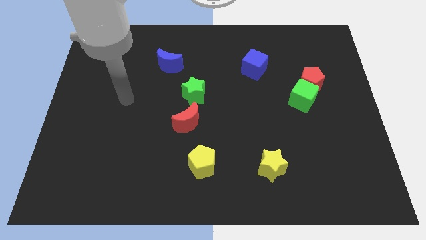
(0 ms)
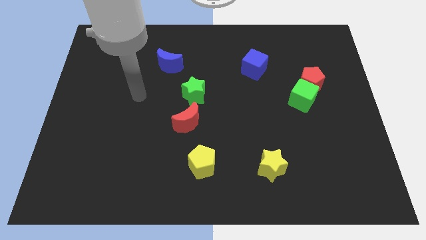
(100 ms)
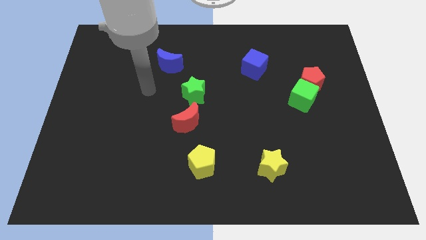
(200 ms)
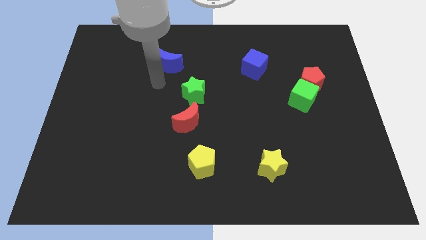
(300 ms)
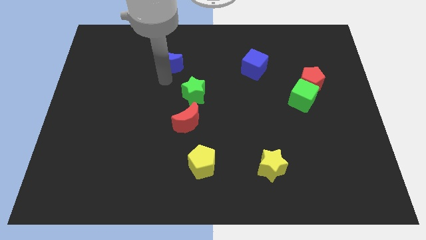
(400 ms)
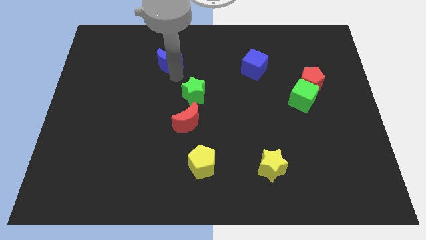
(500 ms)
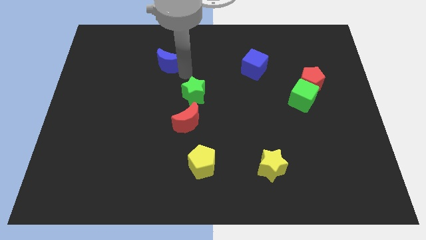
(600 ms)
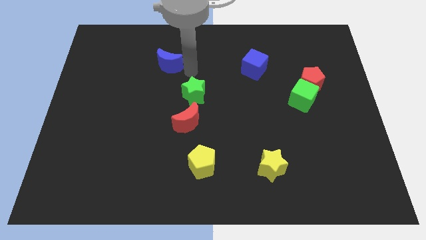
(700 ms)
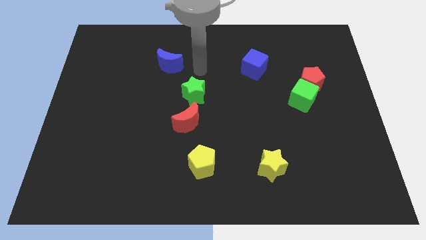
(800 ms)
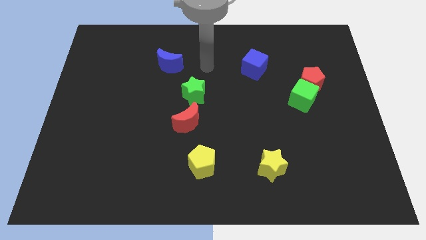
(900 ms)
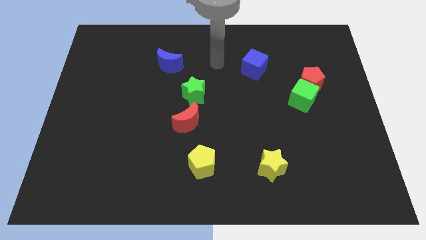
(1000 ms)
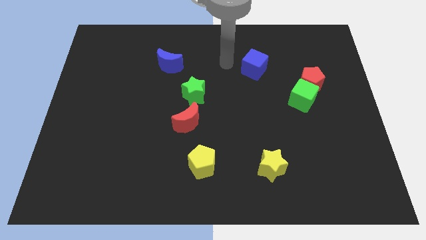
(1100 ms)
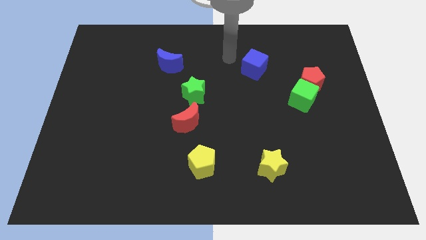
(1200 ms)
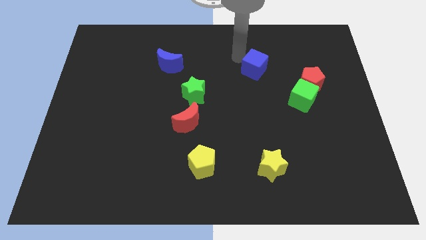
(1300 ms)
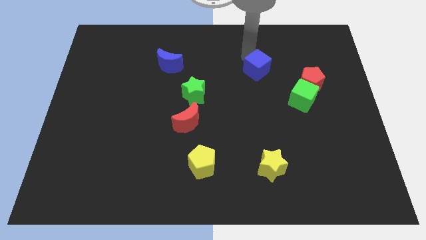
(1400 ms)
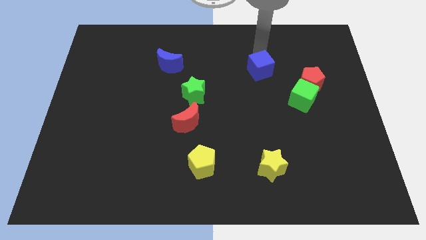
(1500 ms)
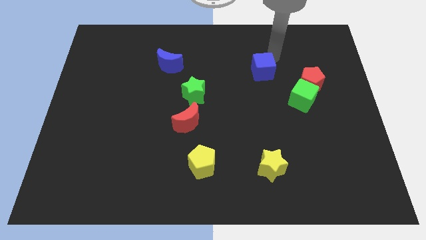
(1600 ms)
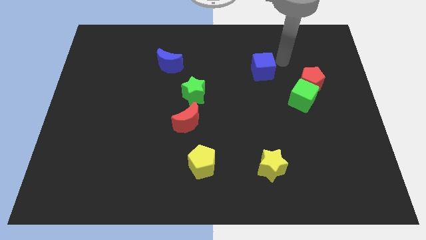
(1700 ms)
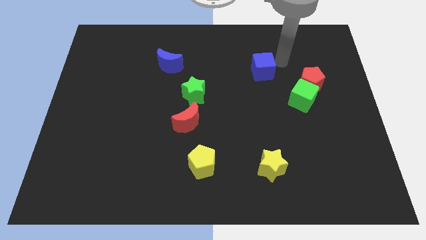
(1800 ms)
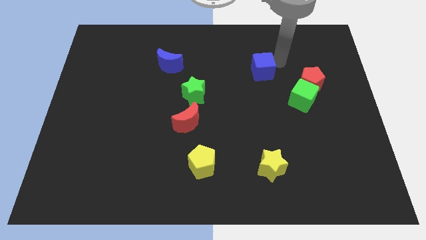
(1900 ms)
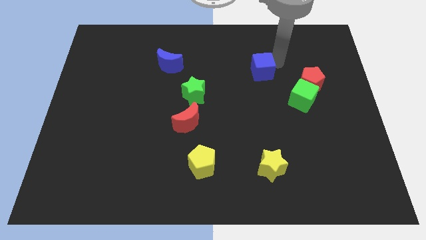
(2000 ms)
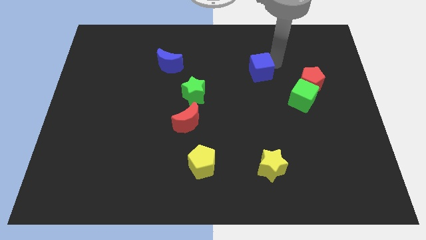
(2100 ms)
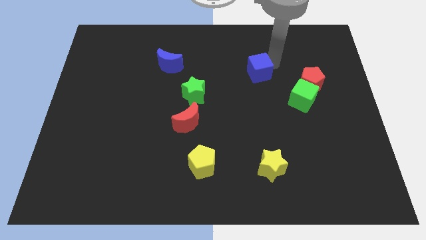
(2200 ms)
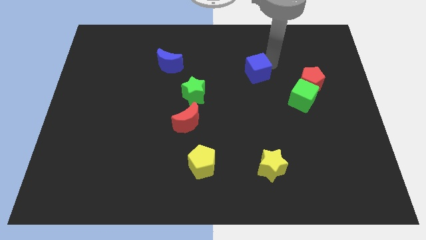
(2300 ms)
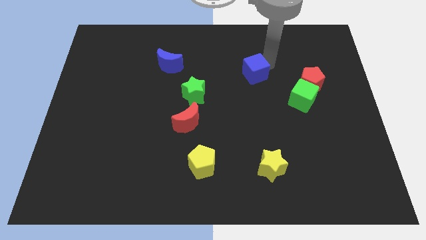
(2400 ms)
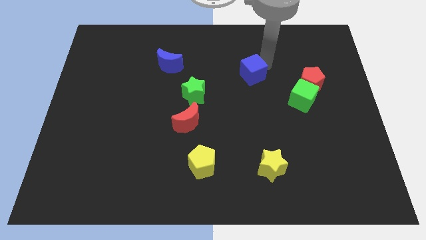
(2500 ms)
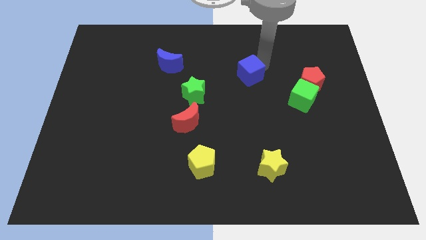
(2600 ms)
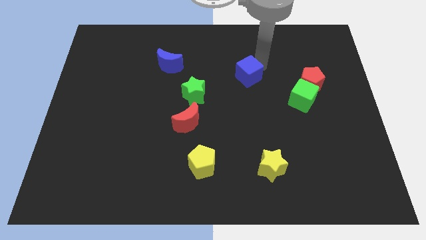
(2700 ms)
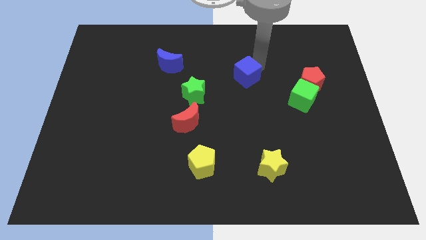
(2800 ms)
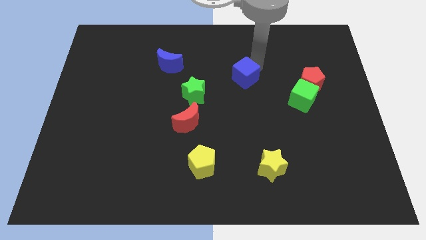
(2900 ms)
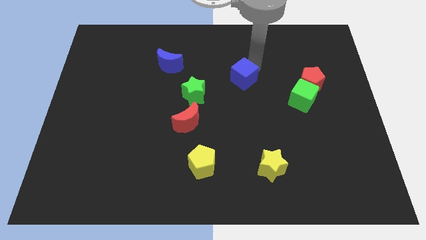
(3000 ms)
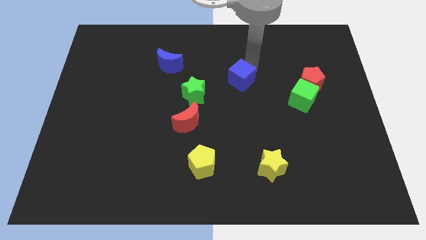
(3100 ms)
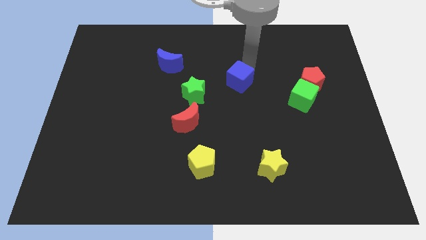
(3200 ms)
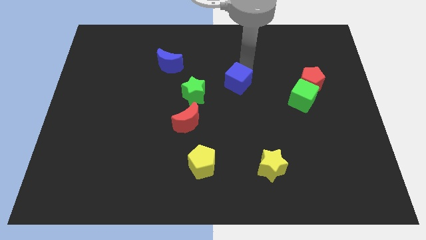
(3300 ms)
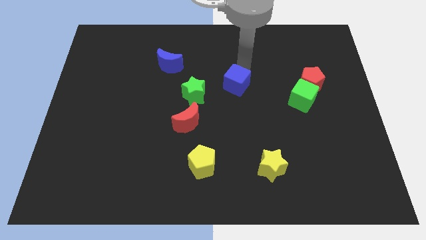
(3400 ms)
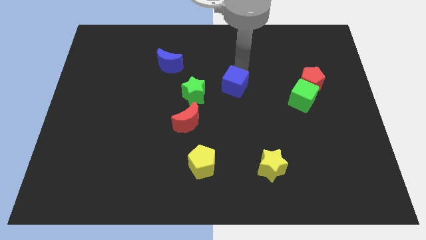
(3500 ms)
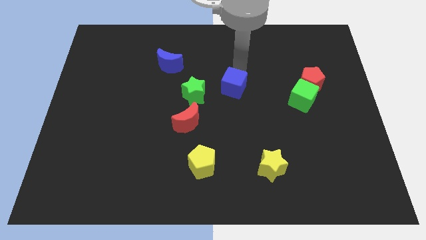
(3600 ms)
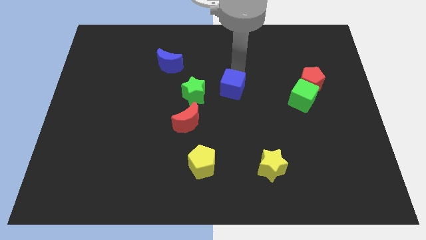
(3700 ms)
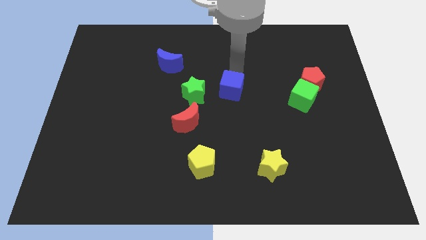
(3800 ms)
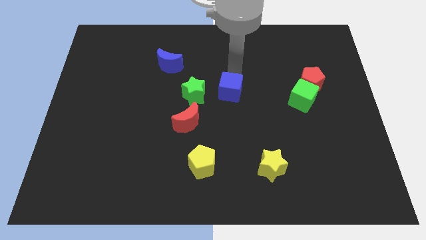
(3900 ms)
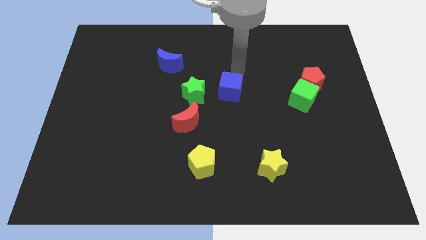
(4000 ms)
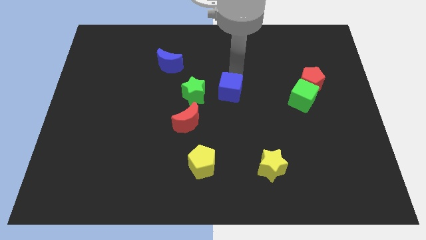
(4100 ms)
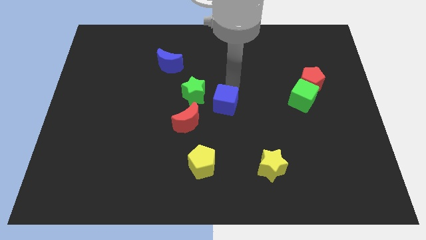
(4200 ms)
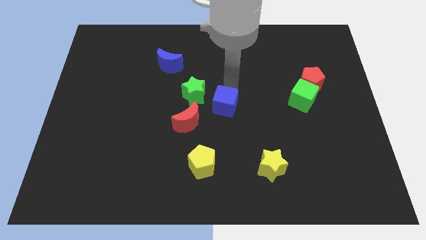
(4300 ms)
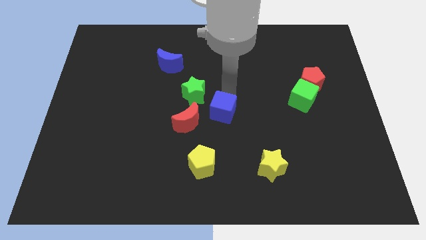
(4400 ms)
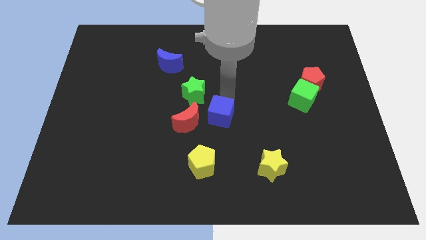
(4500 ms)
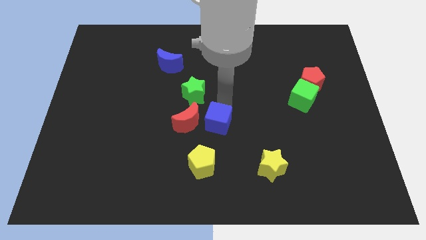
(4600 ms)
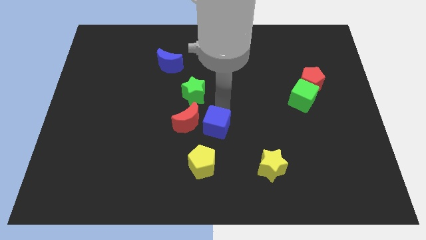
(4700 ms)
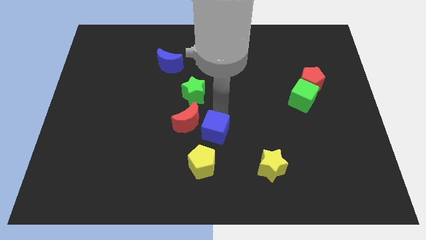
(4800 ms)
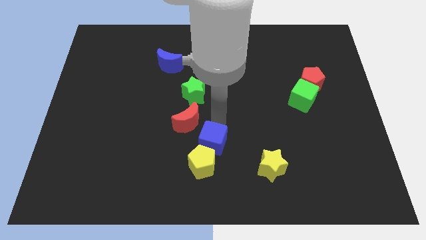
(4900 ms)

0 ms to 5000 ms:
put the blue cube towards the yellow pentagon

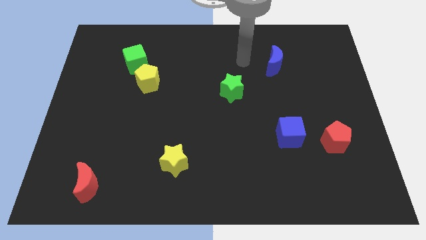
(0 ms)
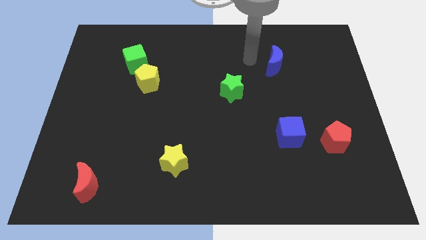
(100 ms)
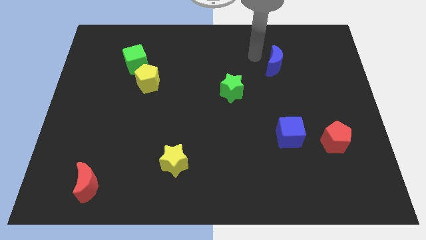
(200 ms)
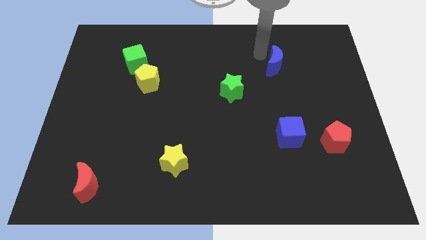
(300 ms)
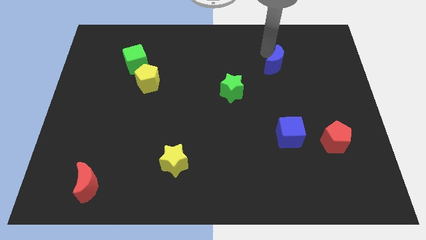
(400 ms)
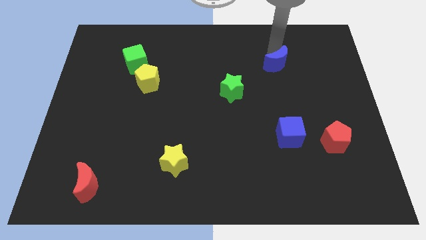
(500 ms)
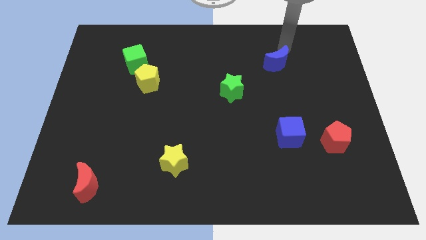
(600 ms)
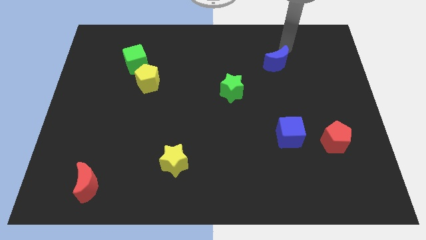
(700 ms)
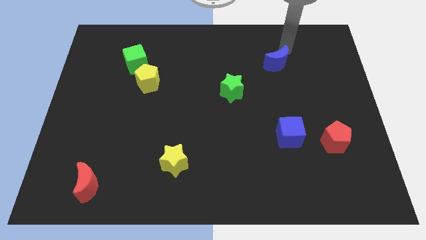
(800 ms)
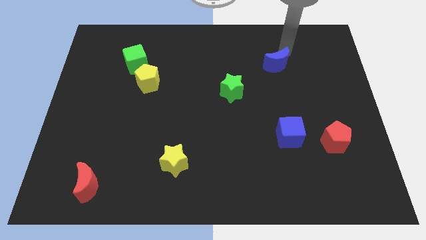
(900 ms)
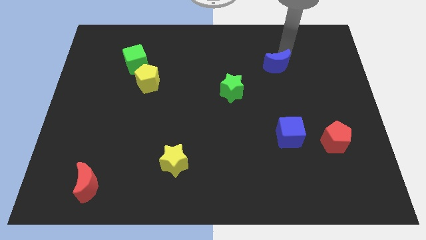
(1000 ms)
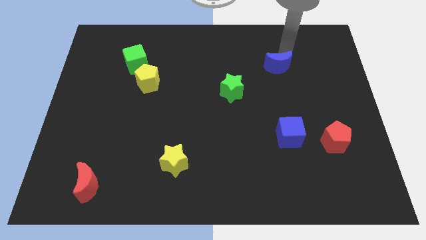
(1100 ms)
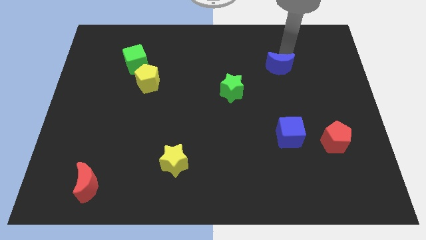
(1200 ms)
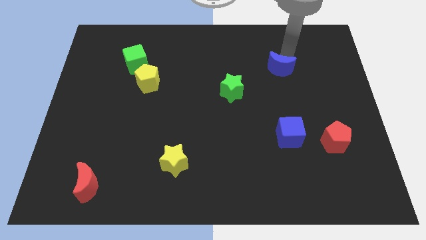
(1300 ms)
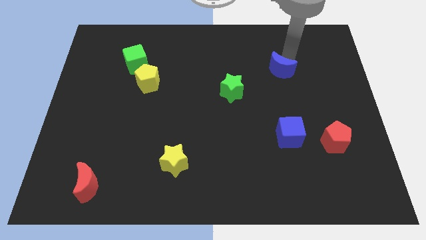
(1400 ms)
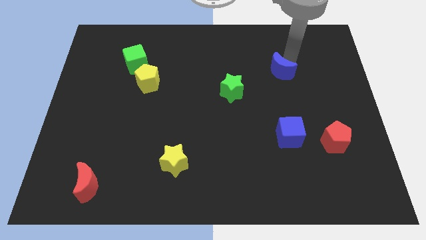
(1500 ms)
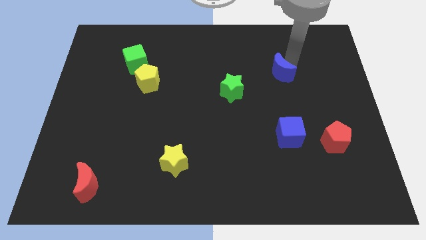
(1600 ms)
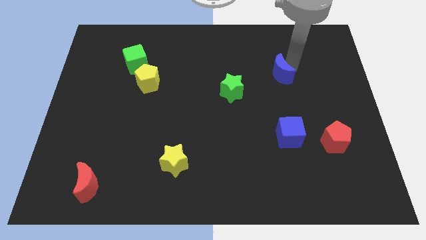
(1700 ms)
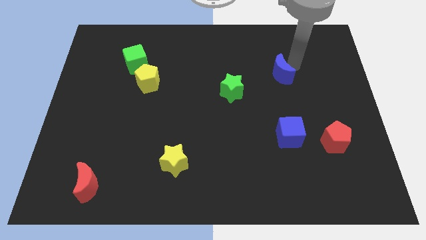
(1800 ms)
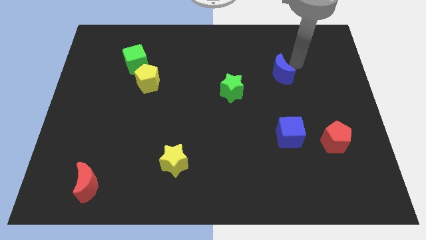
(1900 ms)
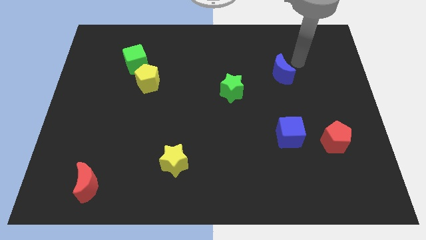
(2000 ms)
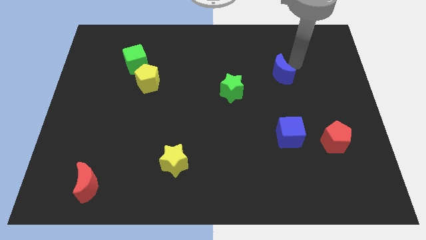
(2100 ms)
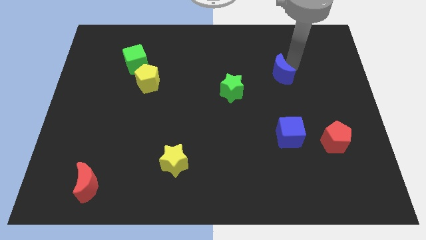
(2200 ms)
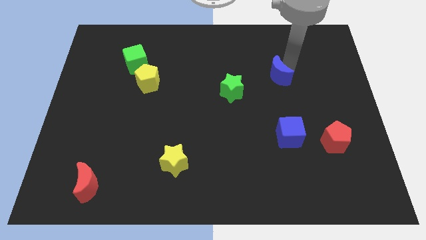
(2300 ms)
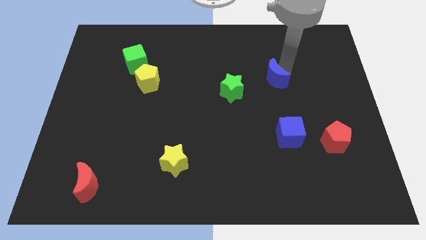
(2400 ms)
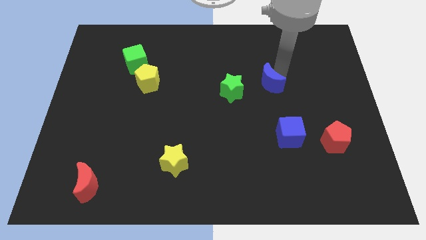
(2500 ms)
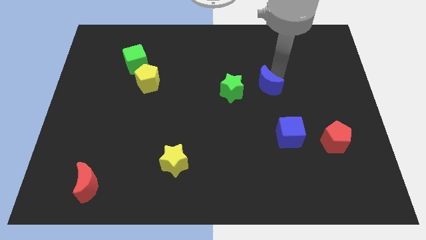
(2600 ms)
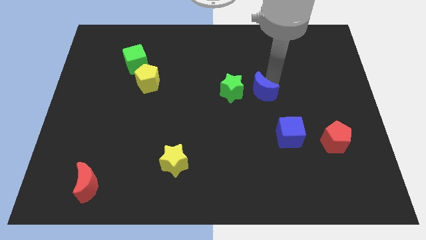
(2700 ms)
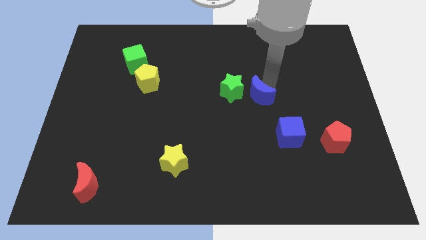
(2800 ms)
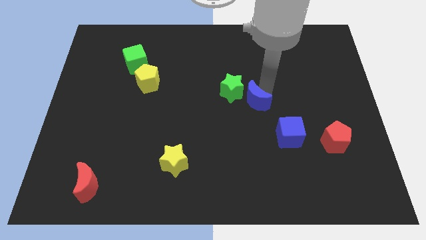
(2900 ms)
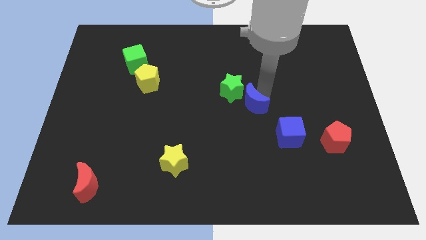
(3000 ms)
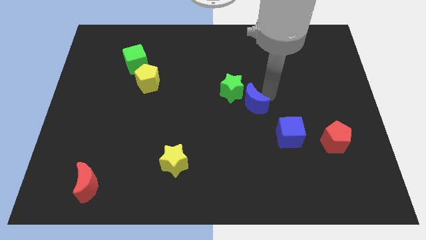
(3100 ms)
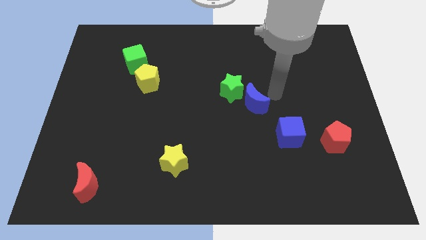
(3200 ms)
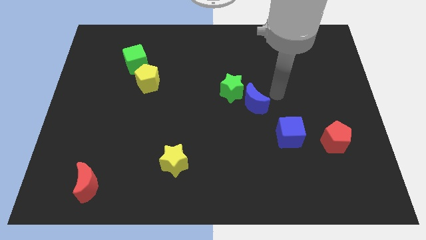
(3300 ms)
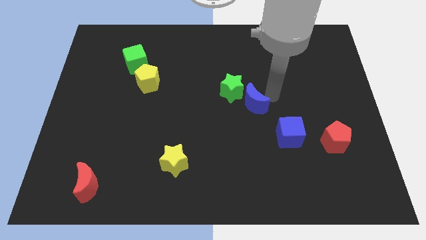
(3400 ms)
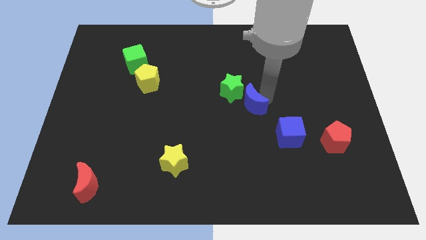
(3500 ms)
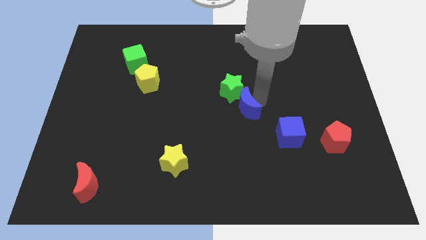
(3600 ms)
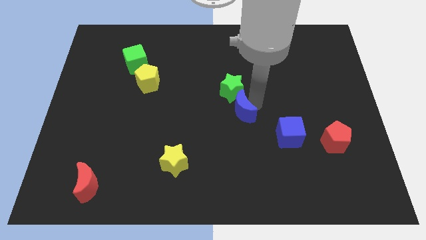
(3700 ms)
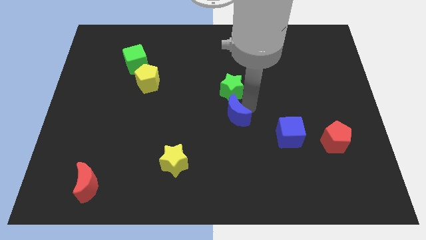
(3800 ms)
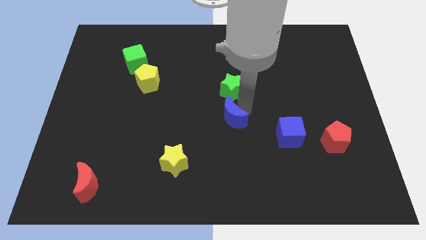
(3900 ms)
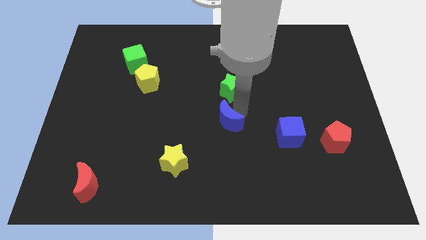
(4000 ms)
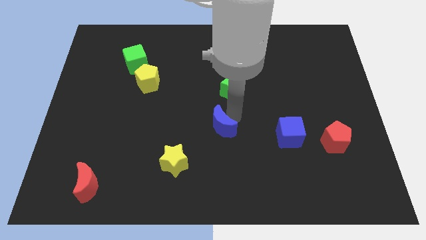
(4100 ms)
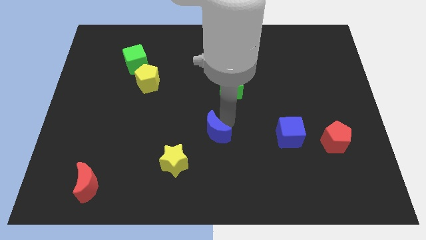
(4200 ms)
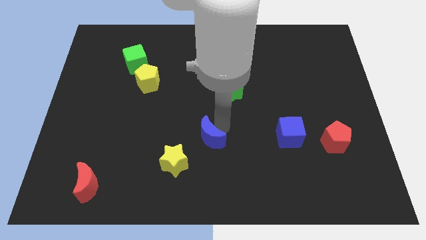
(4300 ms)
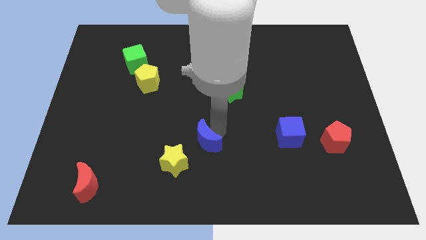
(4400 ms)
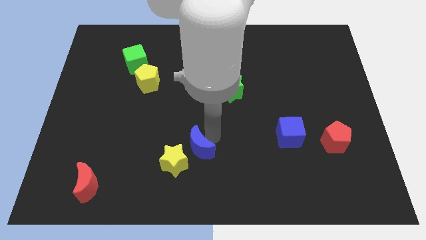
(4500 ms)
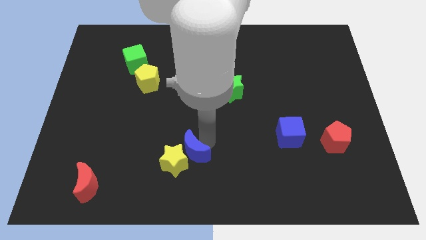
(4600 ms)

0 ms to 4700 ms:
slide the blue moon to the yellow star
